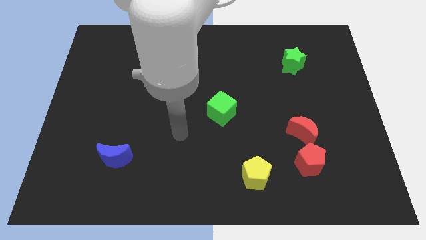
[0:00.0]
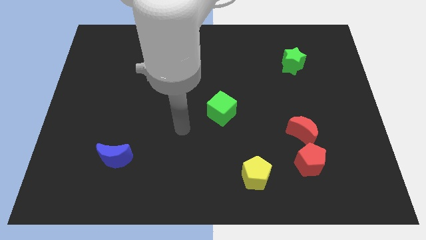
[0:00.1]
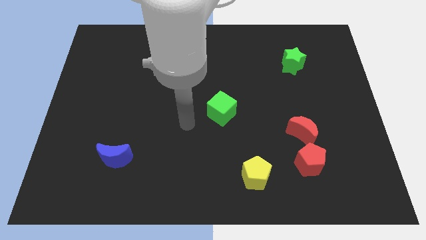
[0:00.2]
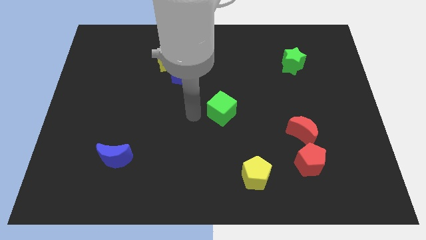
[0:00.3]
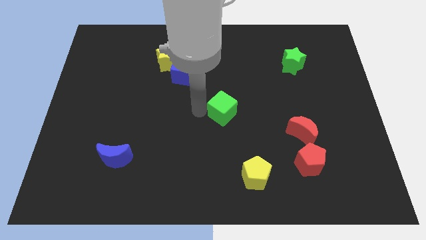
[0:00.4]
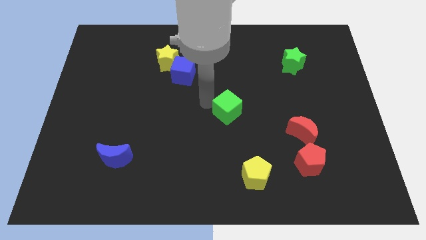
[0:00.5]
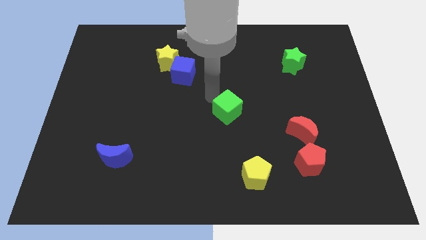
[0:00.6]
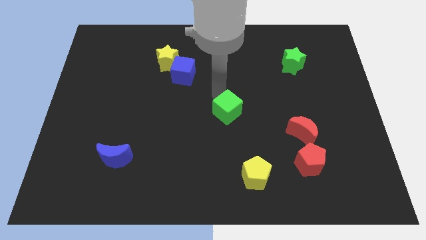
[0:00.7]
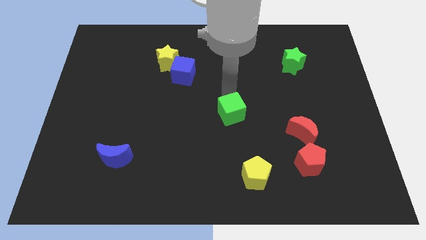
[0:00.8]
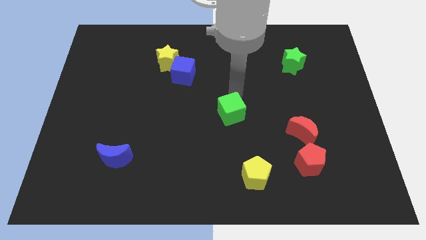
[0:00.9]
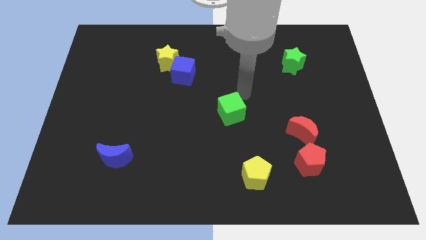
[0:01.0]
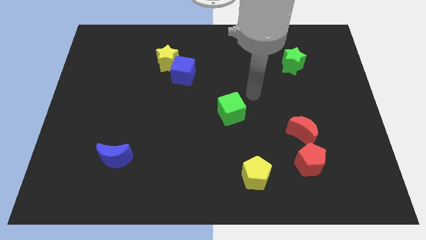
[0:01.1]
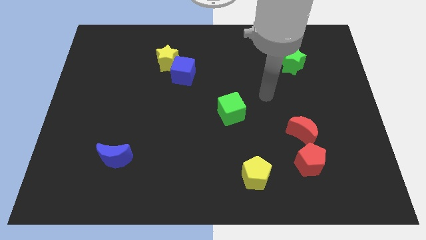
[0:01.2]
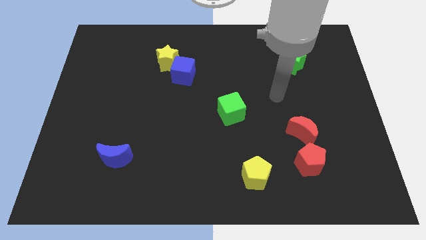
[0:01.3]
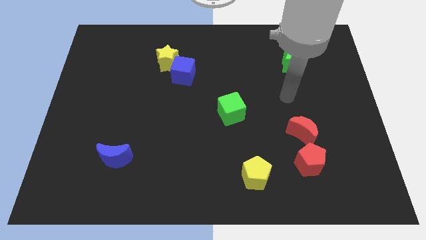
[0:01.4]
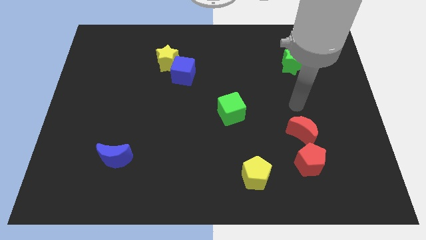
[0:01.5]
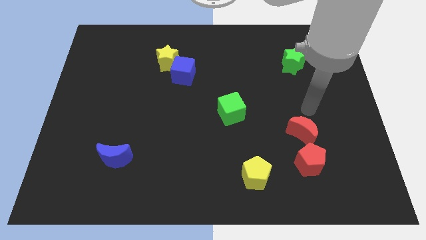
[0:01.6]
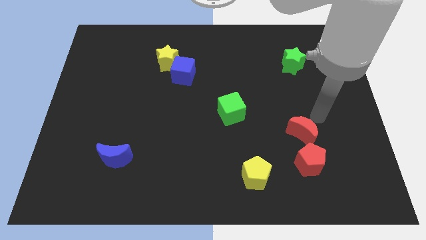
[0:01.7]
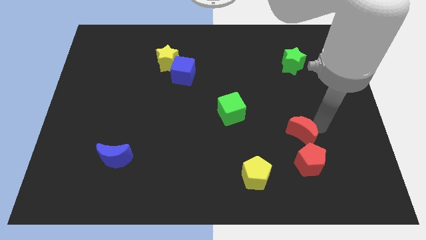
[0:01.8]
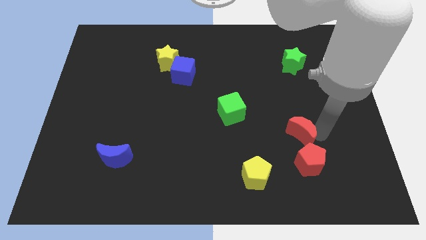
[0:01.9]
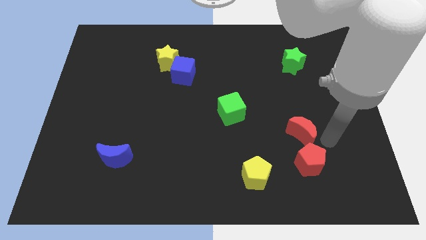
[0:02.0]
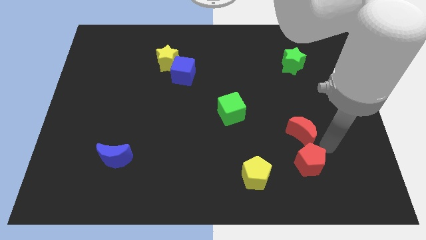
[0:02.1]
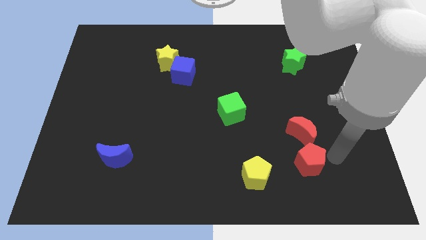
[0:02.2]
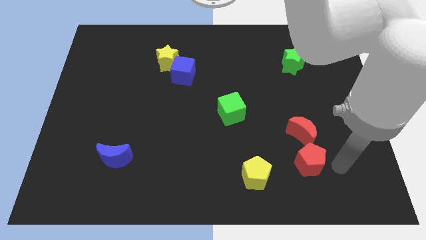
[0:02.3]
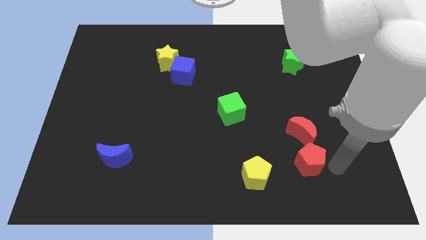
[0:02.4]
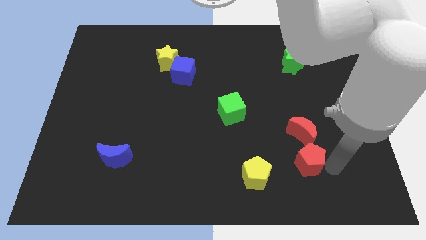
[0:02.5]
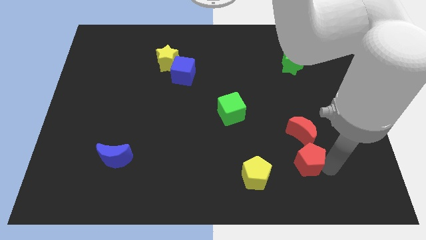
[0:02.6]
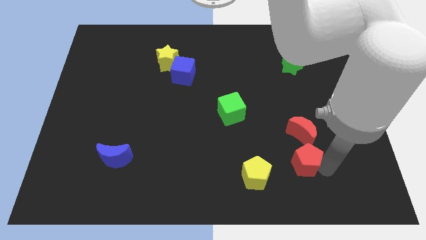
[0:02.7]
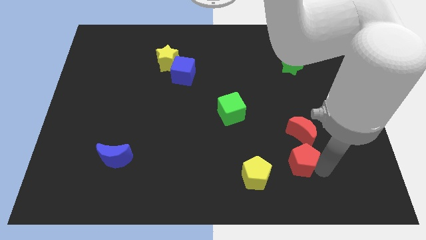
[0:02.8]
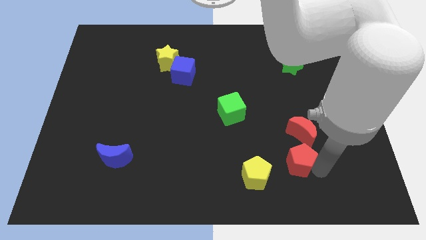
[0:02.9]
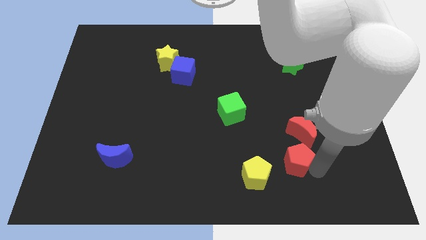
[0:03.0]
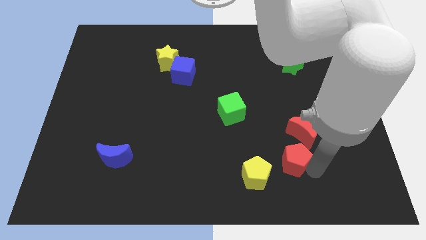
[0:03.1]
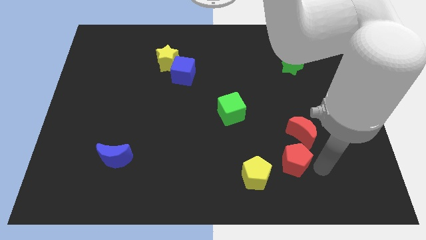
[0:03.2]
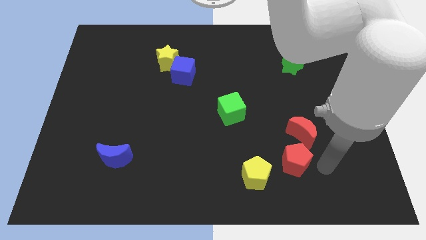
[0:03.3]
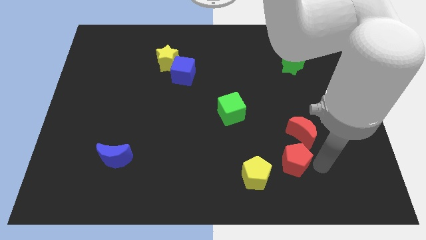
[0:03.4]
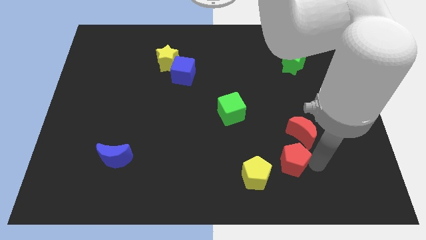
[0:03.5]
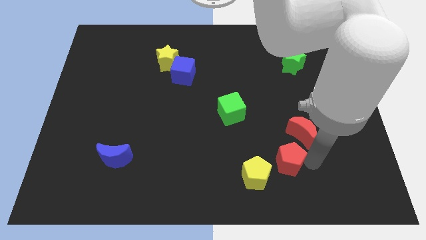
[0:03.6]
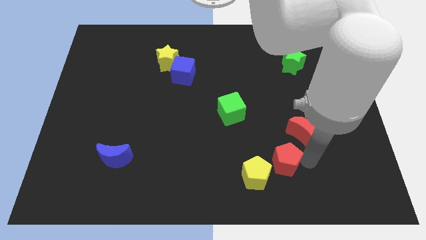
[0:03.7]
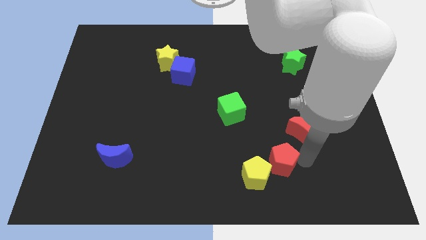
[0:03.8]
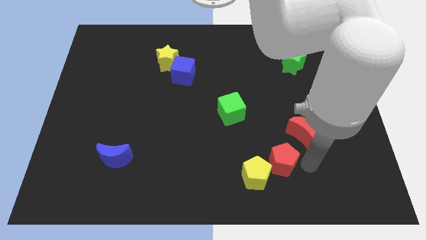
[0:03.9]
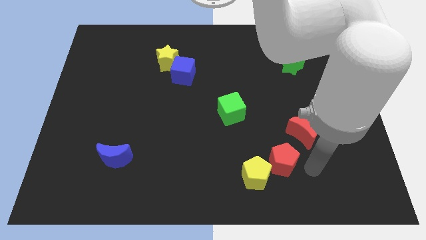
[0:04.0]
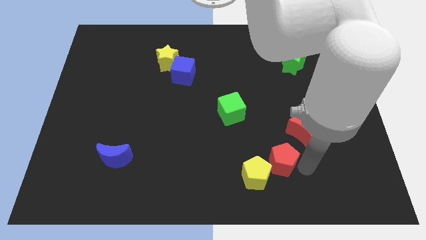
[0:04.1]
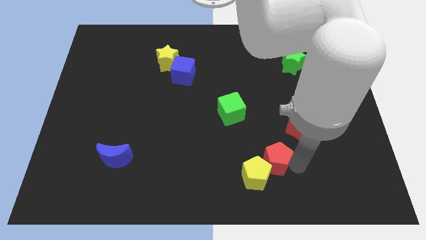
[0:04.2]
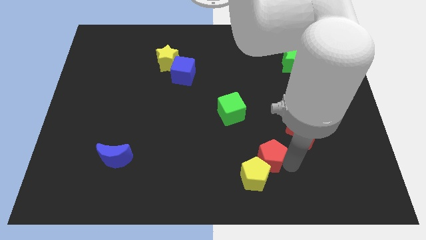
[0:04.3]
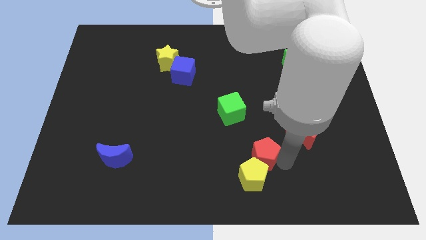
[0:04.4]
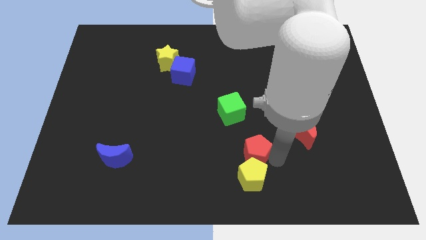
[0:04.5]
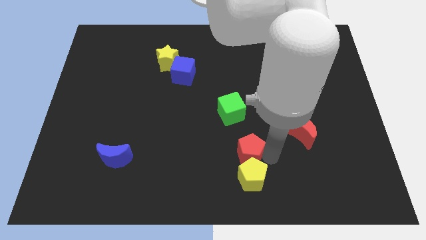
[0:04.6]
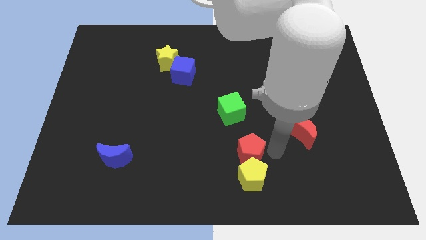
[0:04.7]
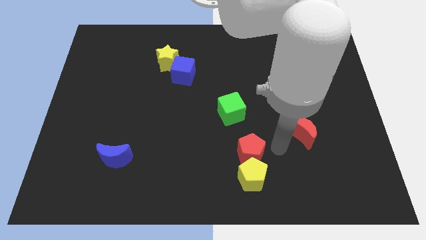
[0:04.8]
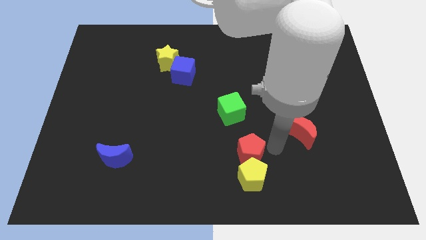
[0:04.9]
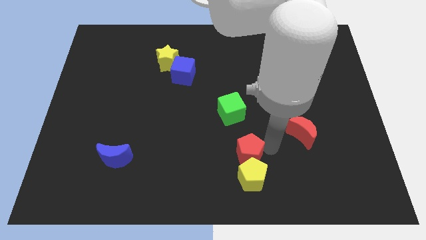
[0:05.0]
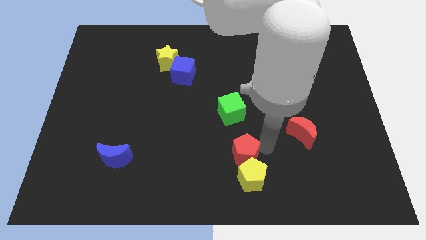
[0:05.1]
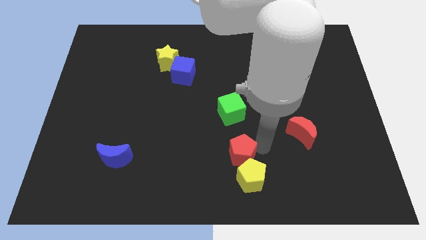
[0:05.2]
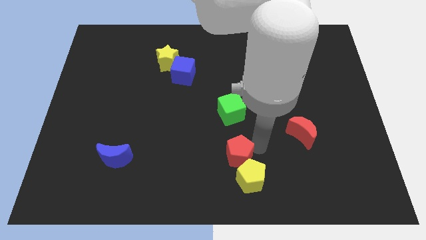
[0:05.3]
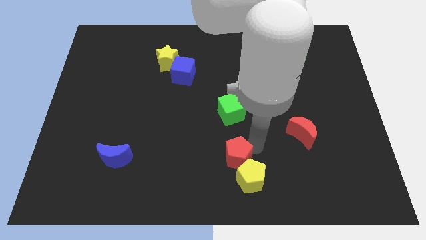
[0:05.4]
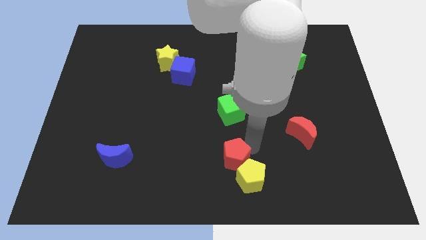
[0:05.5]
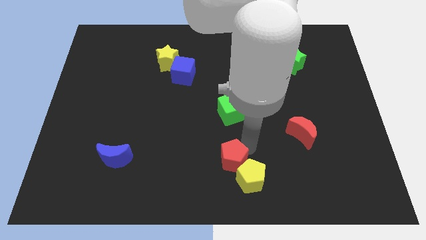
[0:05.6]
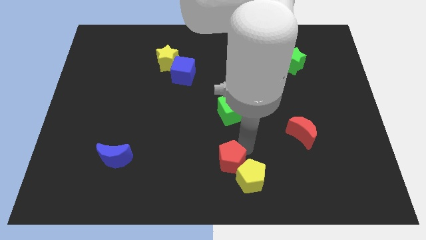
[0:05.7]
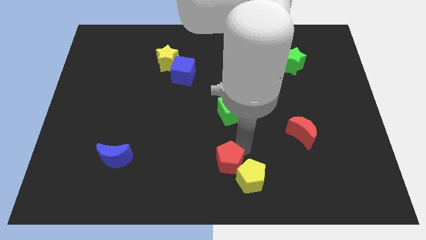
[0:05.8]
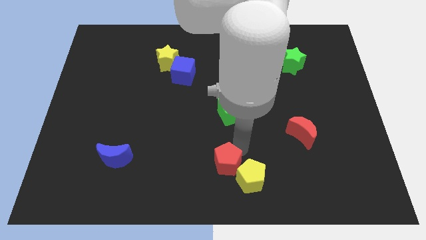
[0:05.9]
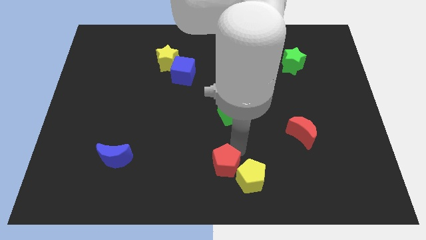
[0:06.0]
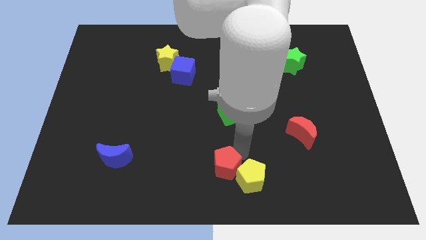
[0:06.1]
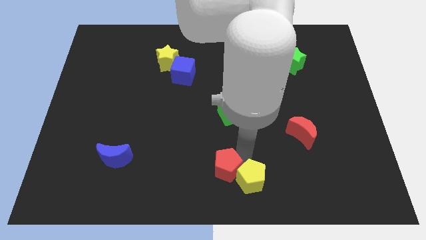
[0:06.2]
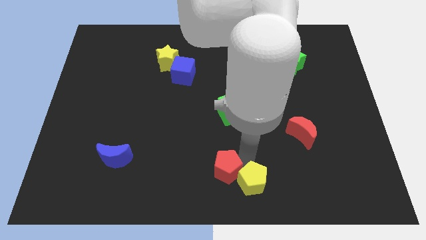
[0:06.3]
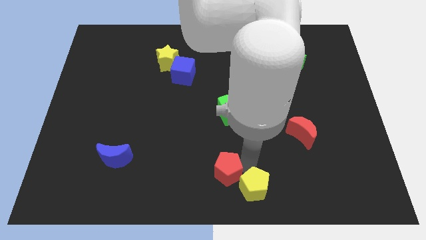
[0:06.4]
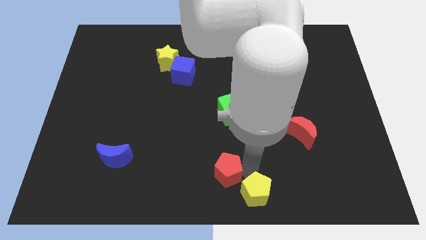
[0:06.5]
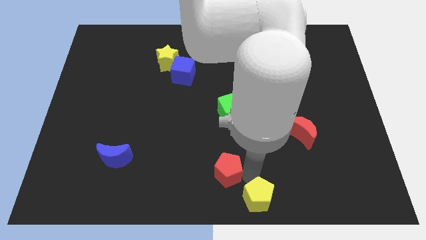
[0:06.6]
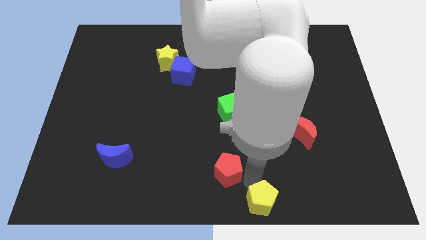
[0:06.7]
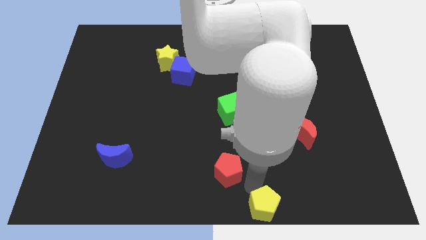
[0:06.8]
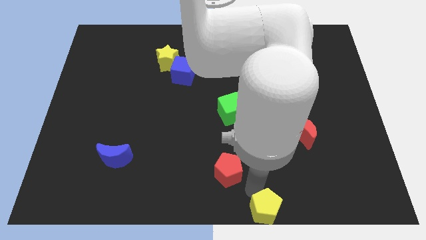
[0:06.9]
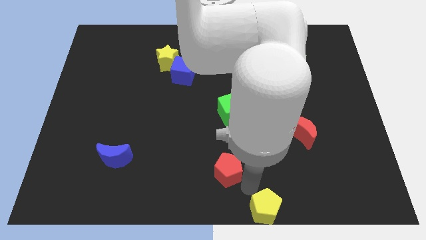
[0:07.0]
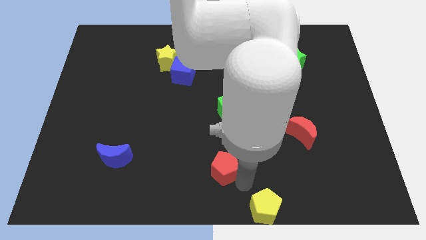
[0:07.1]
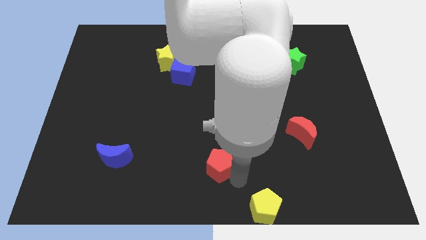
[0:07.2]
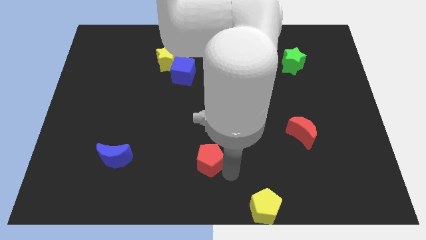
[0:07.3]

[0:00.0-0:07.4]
slide the red pentagon left

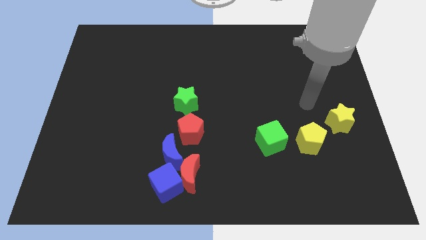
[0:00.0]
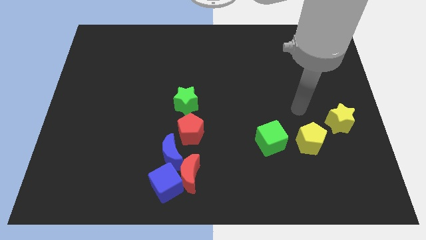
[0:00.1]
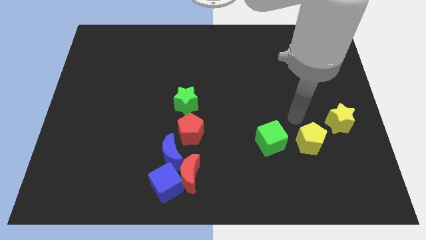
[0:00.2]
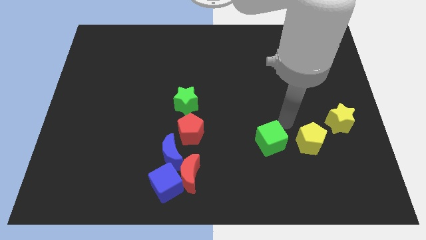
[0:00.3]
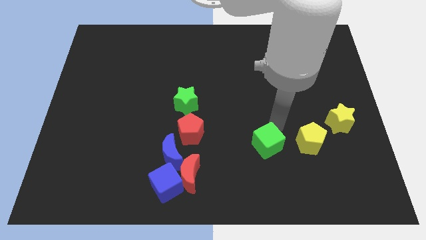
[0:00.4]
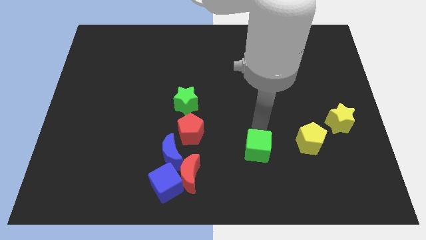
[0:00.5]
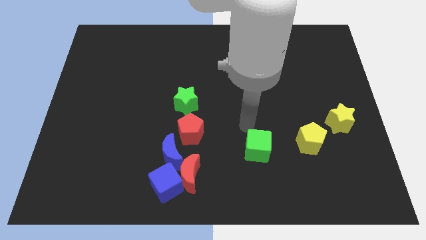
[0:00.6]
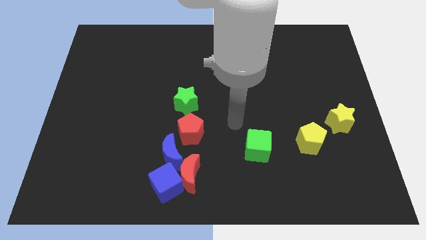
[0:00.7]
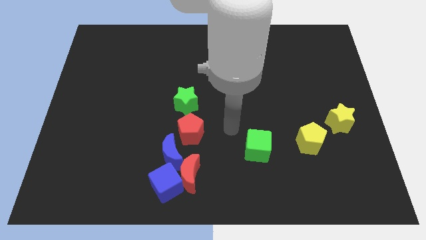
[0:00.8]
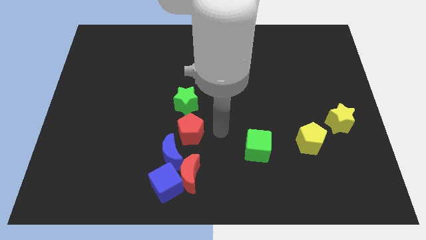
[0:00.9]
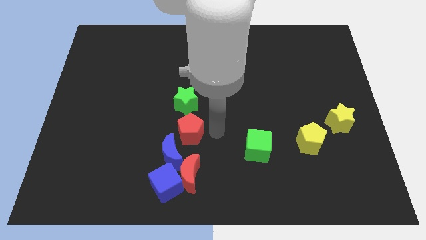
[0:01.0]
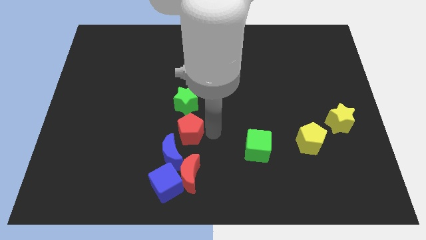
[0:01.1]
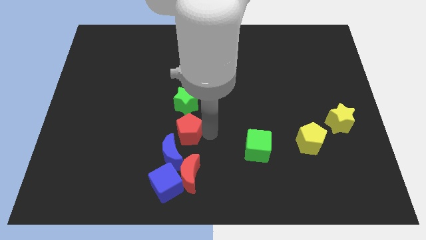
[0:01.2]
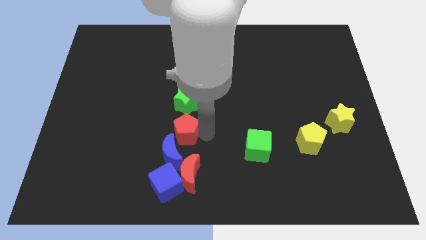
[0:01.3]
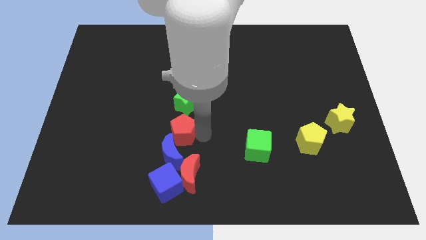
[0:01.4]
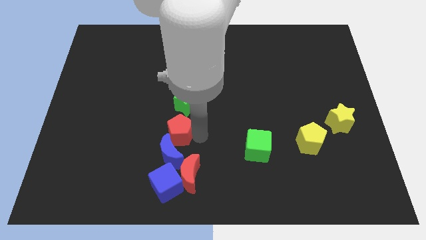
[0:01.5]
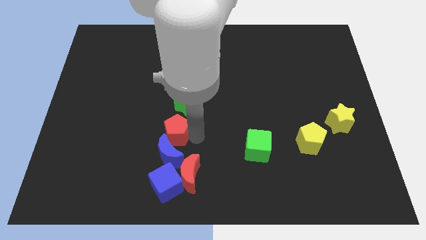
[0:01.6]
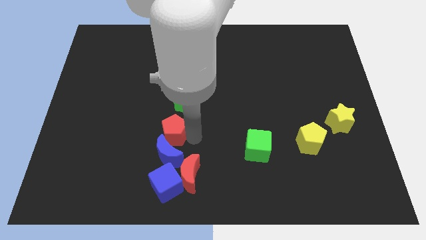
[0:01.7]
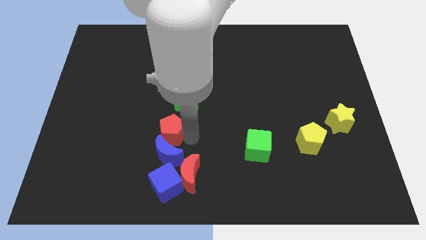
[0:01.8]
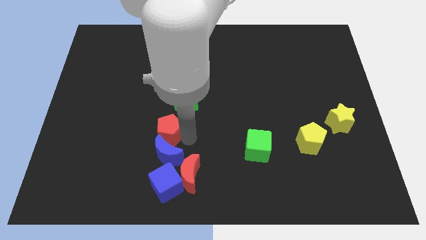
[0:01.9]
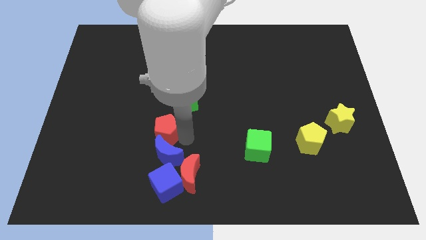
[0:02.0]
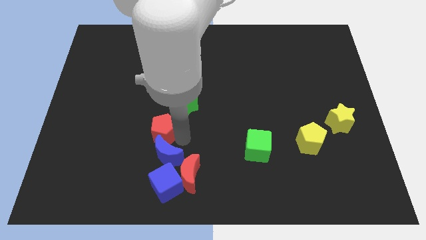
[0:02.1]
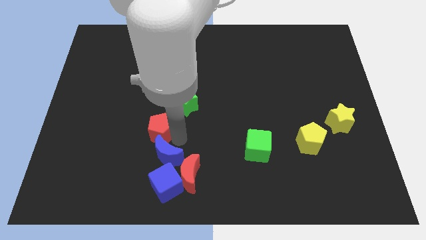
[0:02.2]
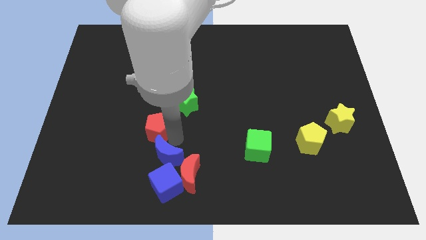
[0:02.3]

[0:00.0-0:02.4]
slightly slide the red pentagon to the left
